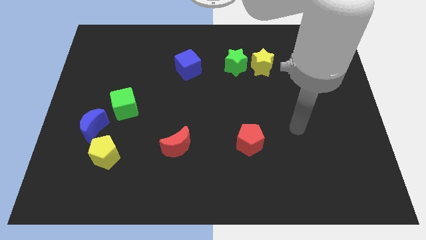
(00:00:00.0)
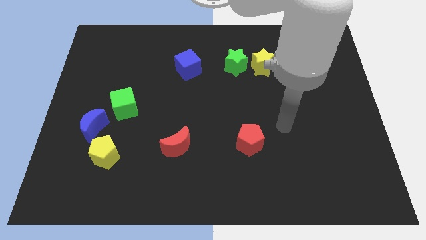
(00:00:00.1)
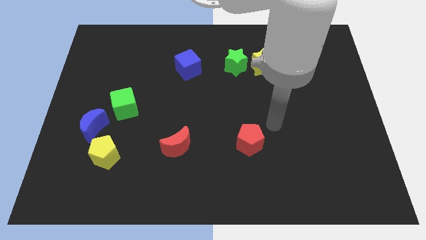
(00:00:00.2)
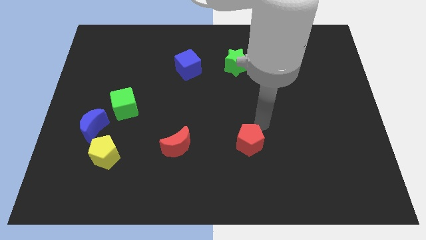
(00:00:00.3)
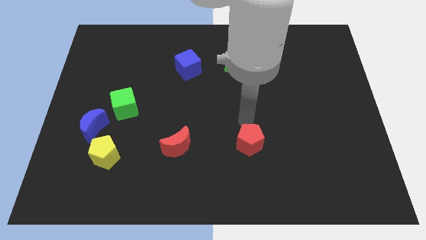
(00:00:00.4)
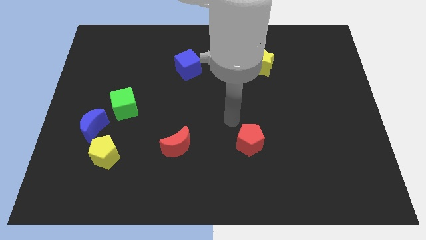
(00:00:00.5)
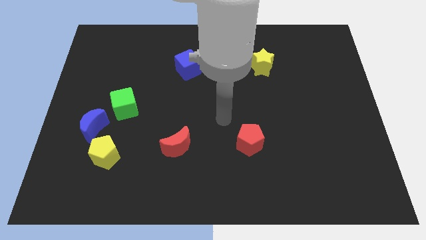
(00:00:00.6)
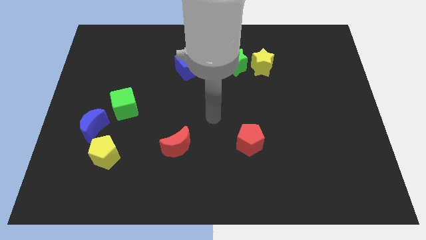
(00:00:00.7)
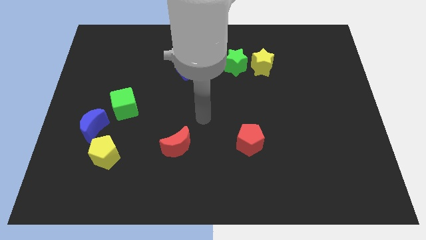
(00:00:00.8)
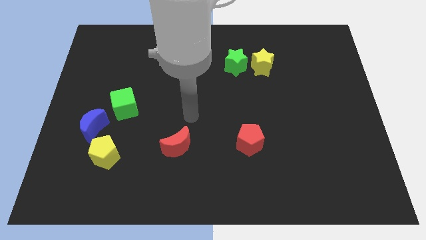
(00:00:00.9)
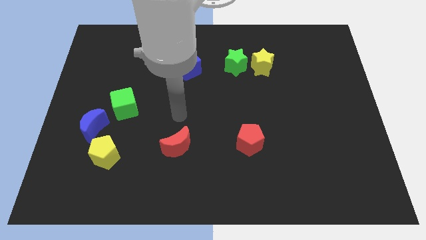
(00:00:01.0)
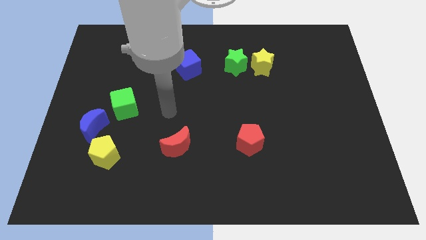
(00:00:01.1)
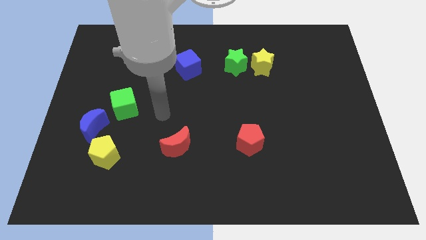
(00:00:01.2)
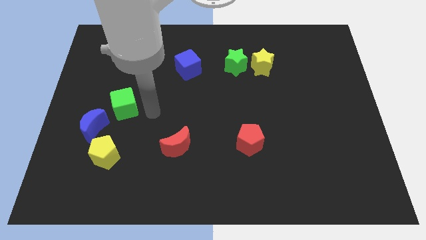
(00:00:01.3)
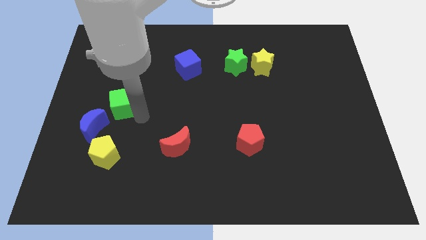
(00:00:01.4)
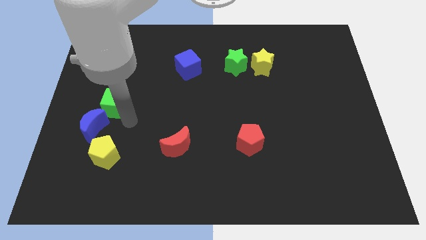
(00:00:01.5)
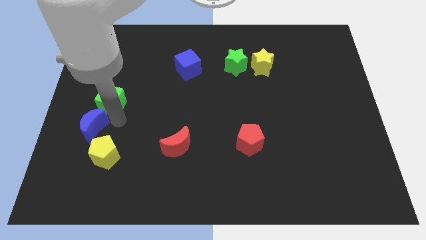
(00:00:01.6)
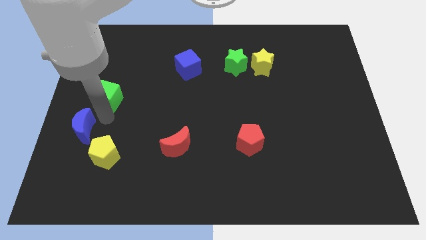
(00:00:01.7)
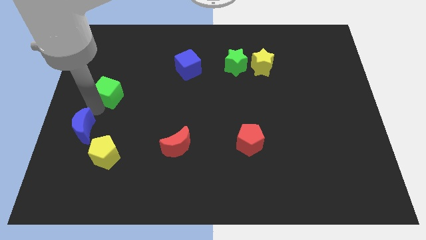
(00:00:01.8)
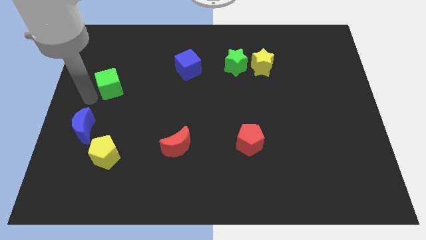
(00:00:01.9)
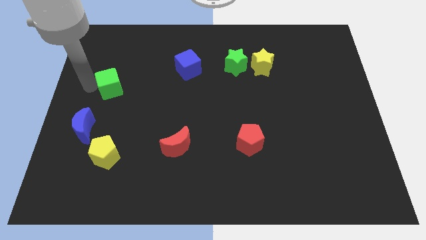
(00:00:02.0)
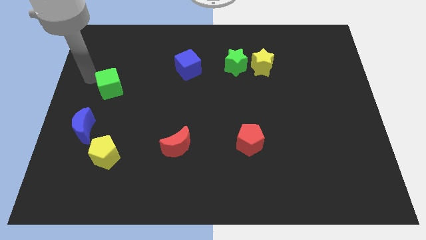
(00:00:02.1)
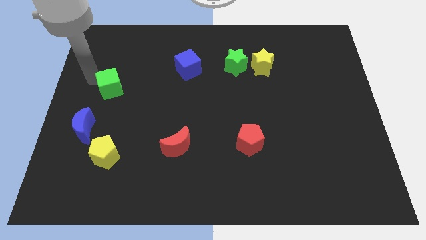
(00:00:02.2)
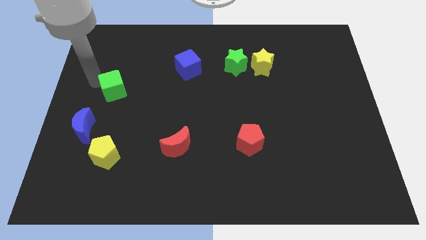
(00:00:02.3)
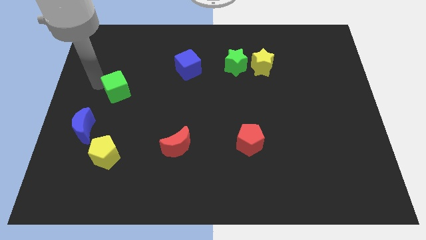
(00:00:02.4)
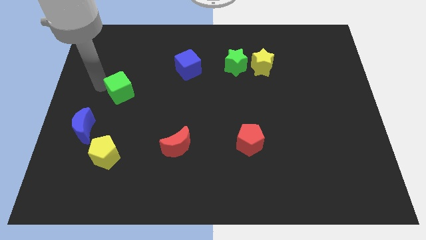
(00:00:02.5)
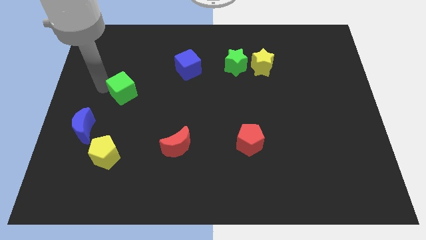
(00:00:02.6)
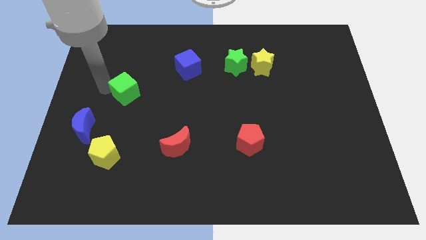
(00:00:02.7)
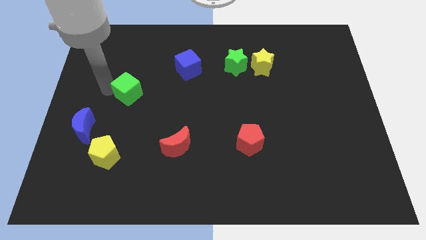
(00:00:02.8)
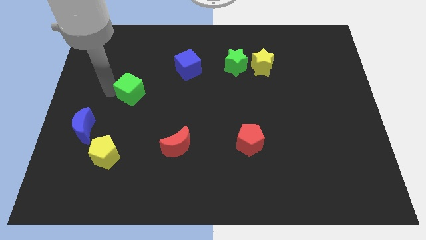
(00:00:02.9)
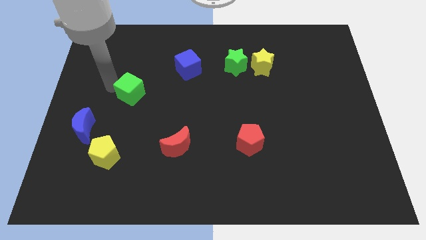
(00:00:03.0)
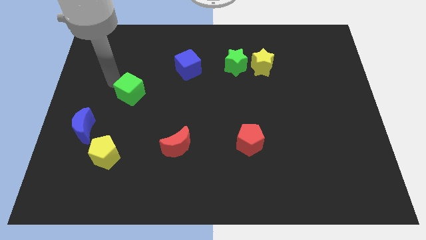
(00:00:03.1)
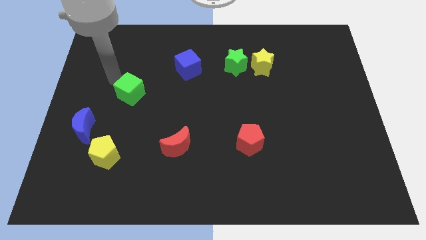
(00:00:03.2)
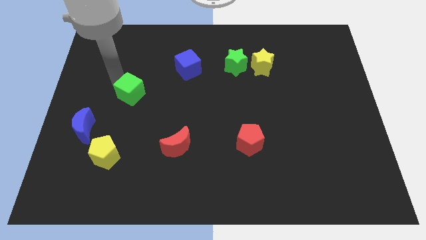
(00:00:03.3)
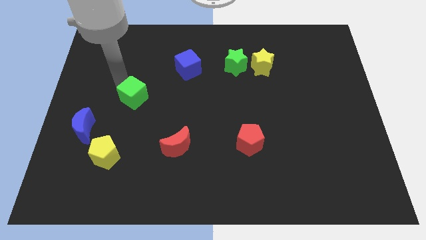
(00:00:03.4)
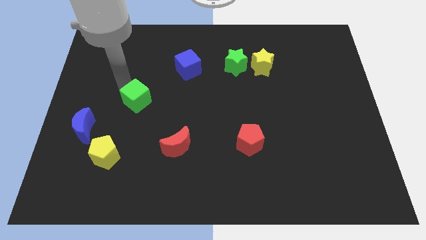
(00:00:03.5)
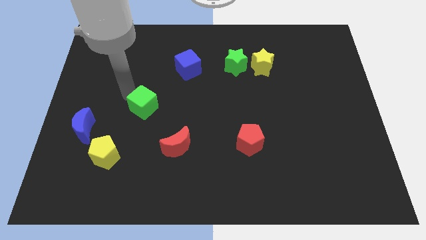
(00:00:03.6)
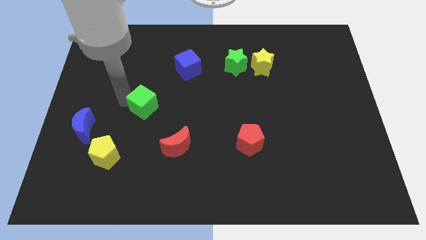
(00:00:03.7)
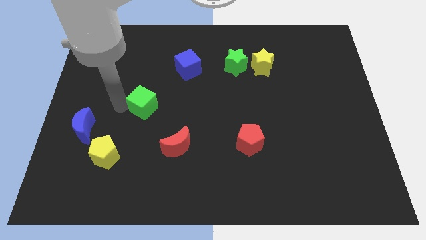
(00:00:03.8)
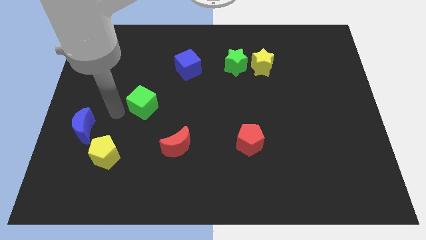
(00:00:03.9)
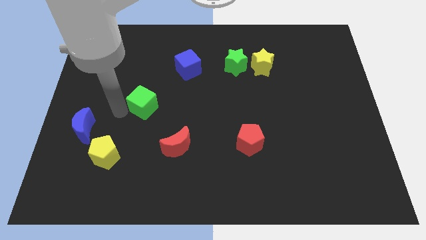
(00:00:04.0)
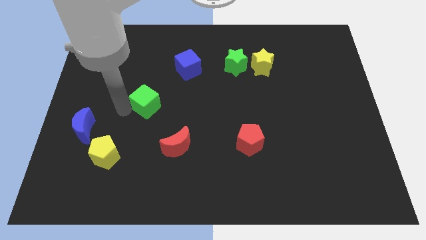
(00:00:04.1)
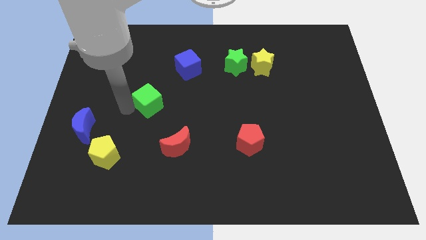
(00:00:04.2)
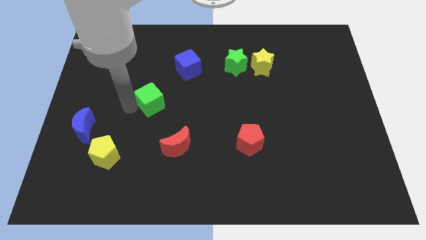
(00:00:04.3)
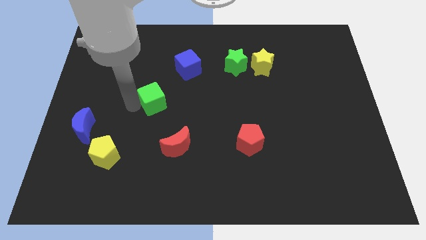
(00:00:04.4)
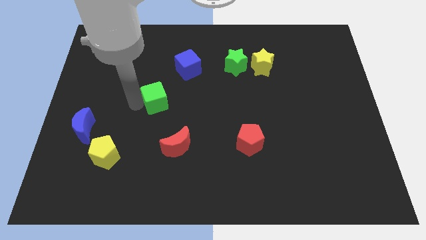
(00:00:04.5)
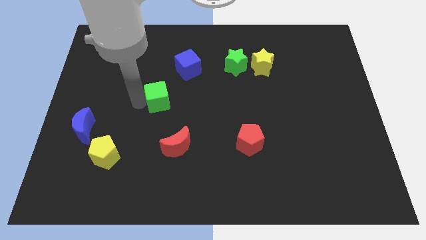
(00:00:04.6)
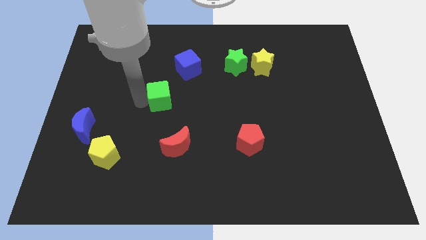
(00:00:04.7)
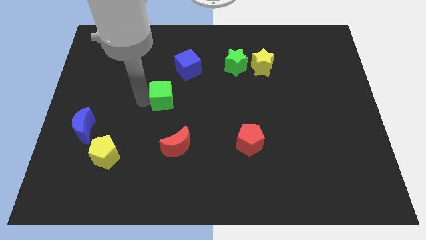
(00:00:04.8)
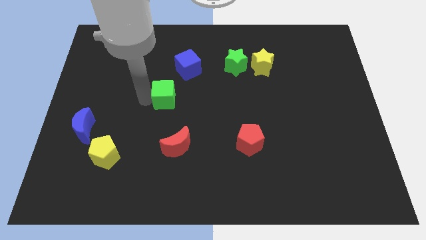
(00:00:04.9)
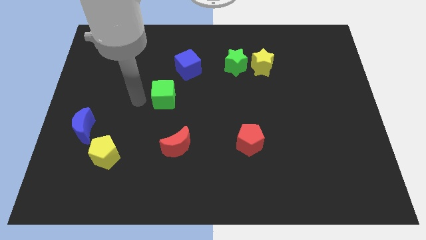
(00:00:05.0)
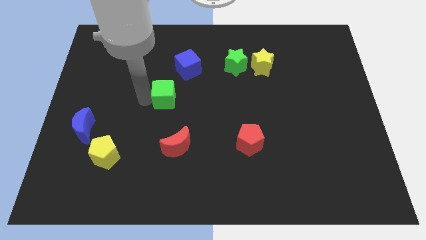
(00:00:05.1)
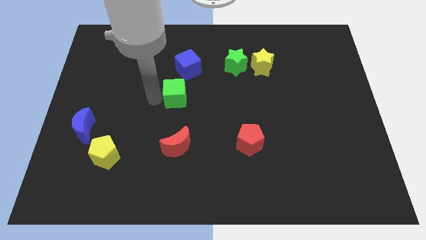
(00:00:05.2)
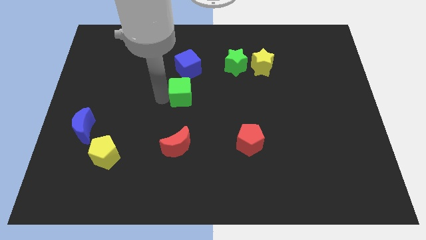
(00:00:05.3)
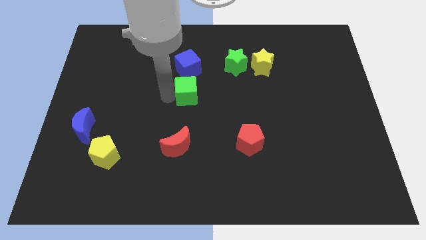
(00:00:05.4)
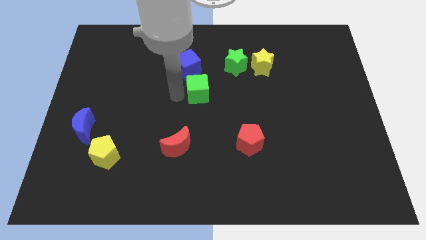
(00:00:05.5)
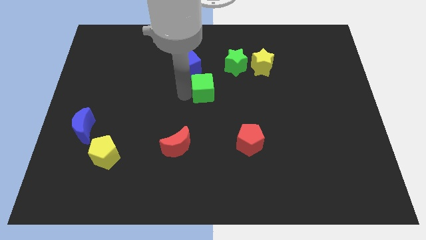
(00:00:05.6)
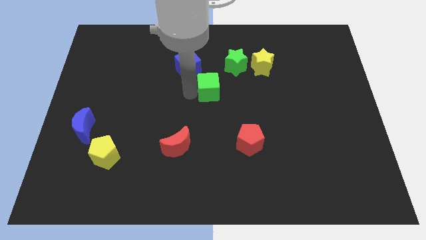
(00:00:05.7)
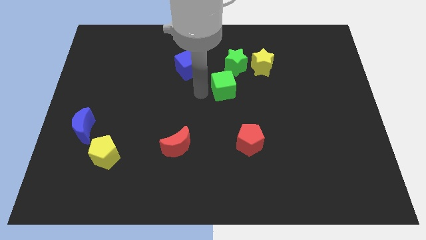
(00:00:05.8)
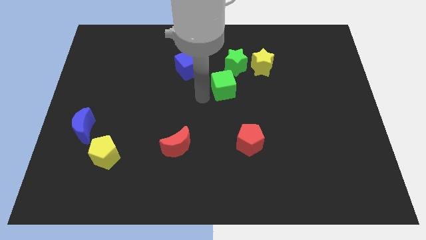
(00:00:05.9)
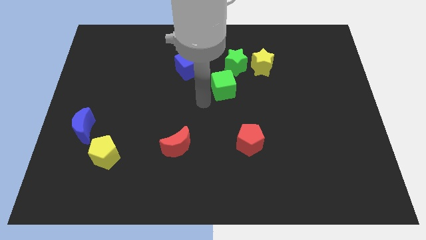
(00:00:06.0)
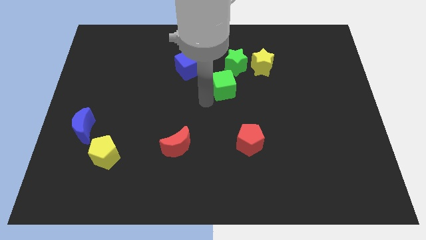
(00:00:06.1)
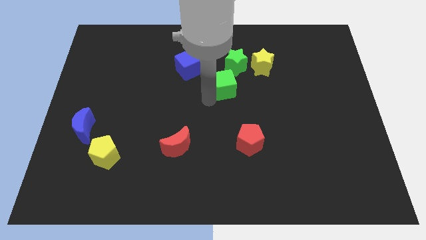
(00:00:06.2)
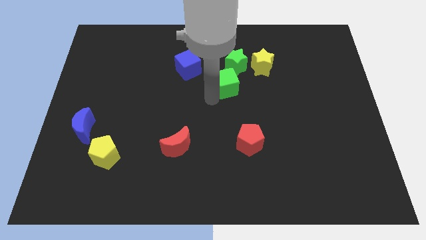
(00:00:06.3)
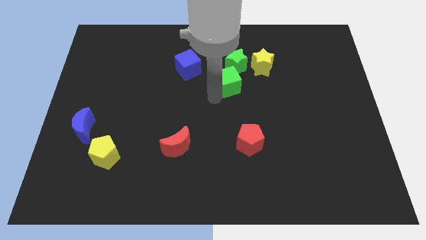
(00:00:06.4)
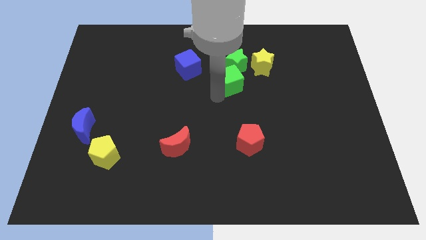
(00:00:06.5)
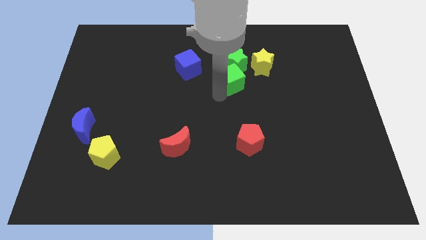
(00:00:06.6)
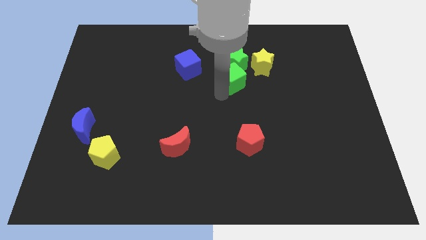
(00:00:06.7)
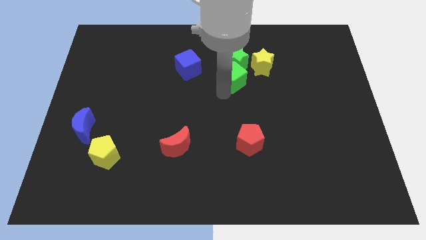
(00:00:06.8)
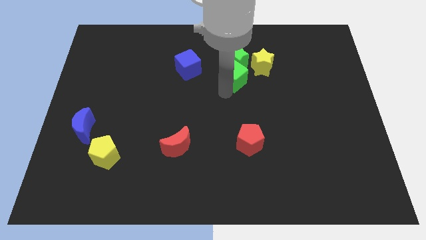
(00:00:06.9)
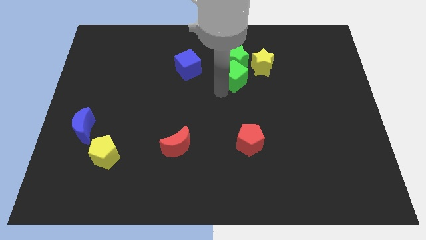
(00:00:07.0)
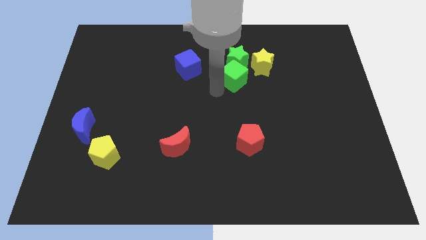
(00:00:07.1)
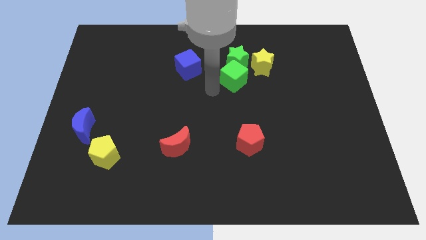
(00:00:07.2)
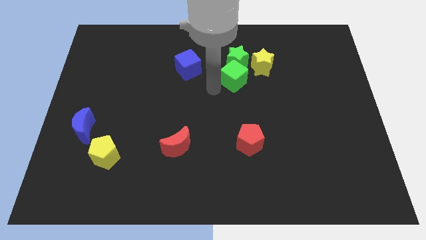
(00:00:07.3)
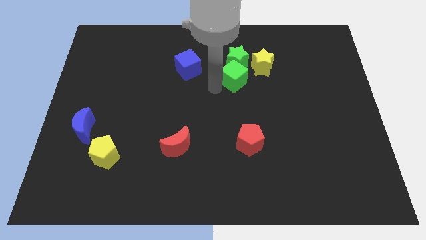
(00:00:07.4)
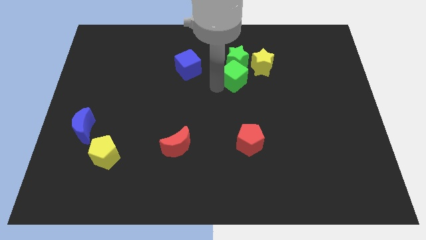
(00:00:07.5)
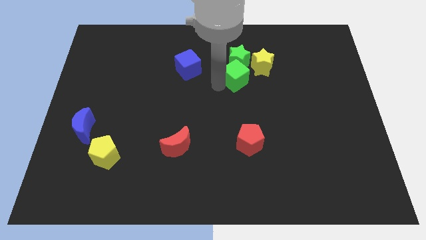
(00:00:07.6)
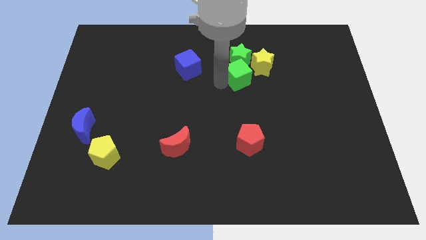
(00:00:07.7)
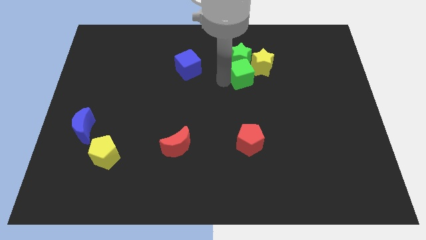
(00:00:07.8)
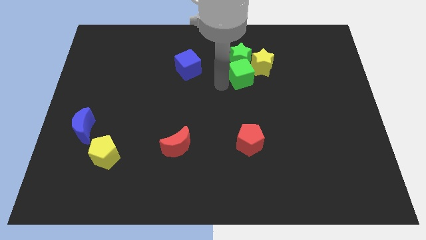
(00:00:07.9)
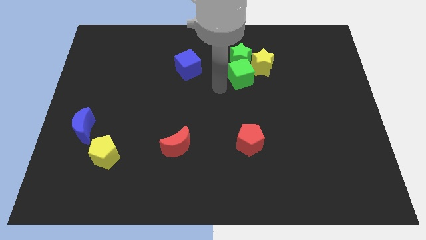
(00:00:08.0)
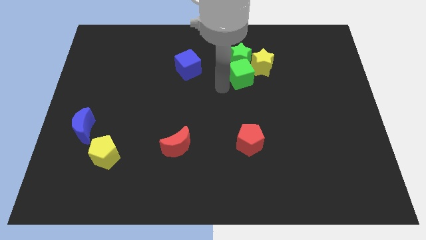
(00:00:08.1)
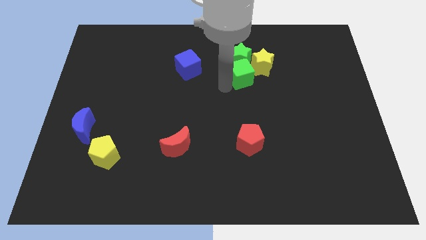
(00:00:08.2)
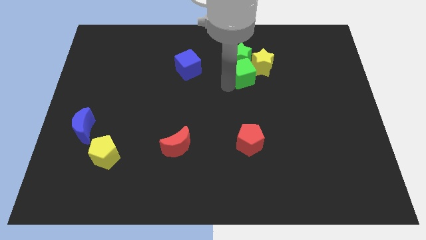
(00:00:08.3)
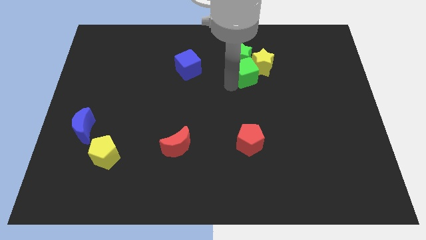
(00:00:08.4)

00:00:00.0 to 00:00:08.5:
slide the green cube close to the yellow star
